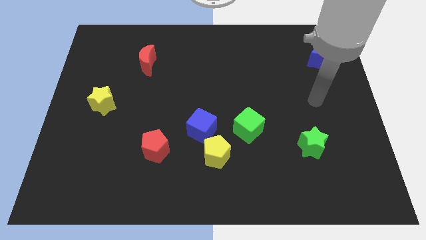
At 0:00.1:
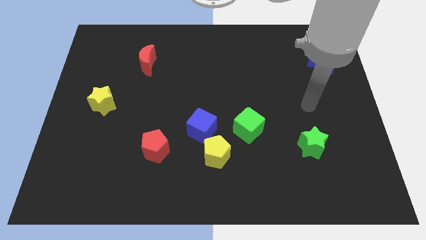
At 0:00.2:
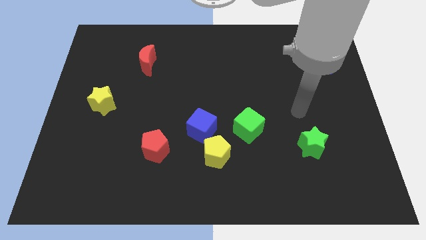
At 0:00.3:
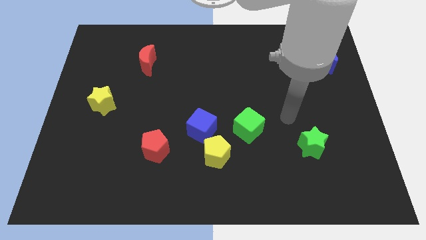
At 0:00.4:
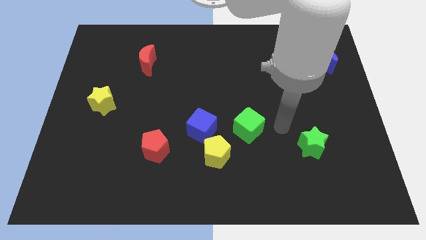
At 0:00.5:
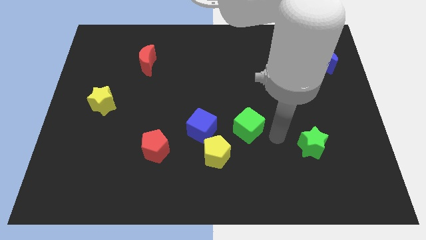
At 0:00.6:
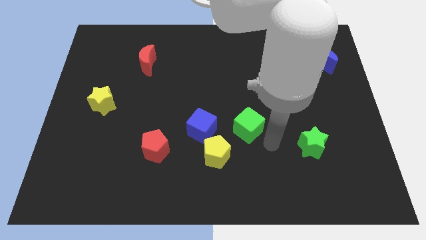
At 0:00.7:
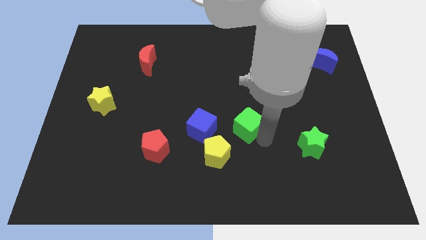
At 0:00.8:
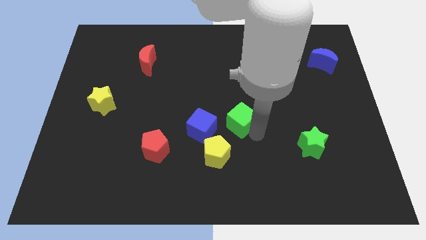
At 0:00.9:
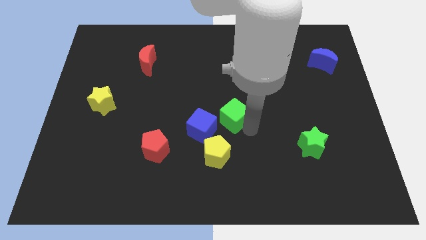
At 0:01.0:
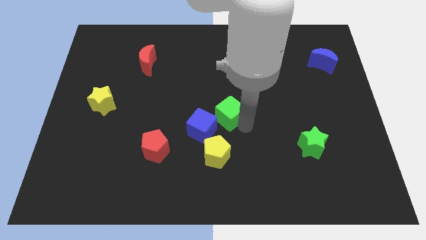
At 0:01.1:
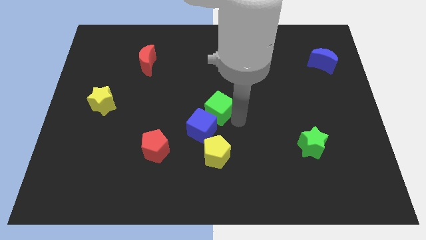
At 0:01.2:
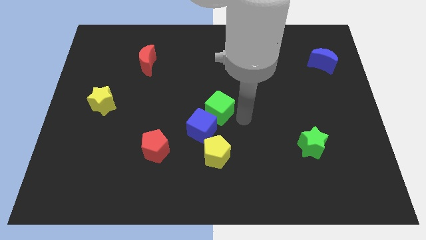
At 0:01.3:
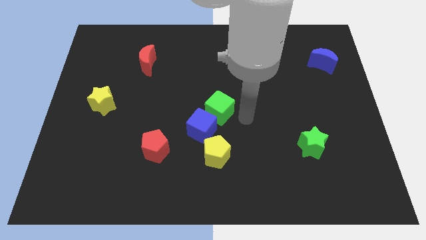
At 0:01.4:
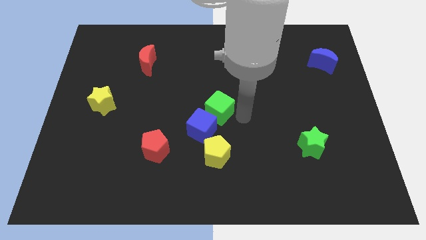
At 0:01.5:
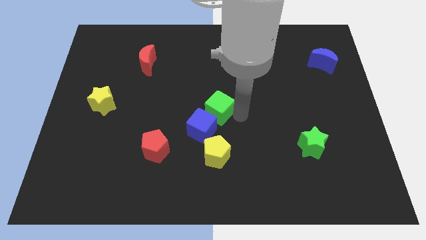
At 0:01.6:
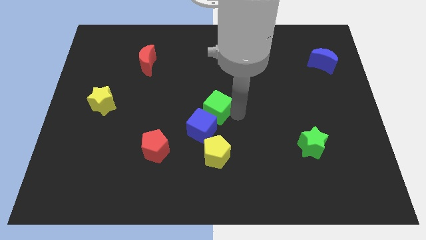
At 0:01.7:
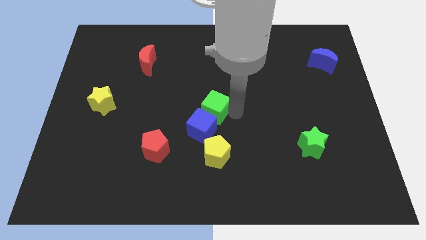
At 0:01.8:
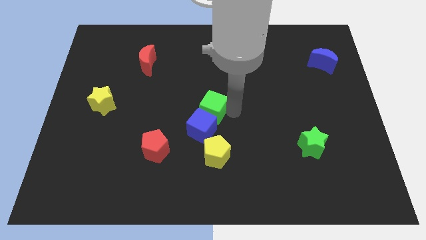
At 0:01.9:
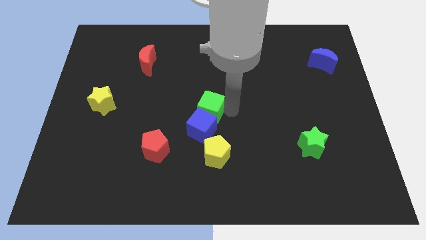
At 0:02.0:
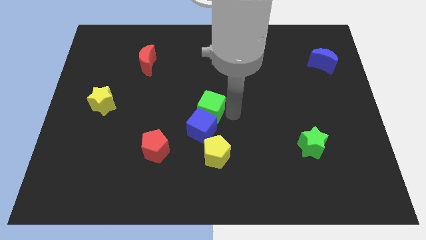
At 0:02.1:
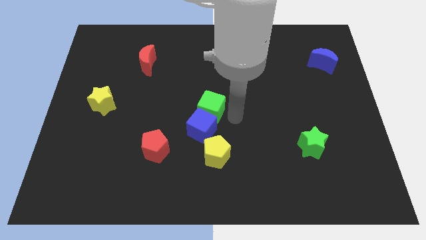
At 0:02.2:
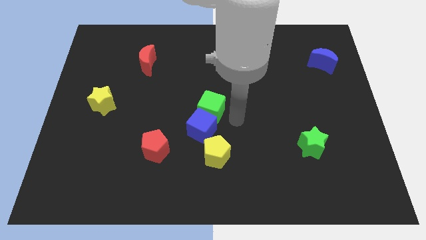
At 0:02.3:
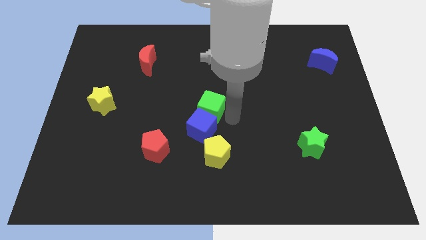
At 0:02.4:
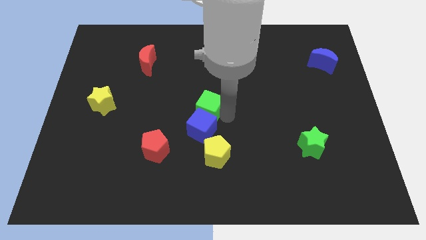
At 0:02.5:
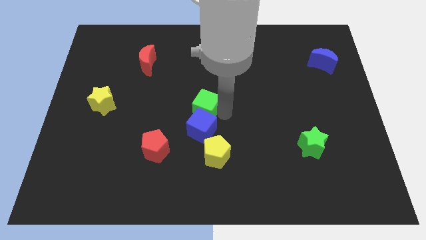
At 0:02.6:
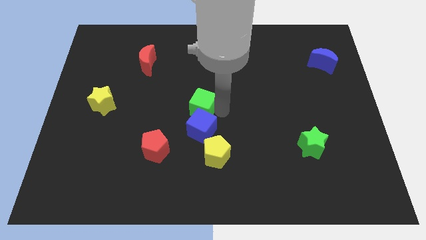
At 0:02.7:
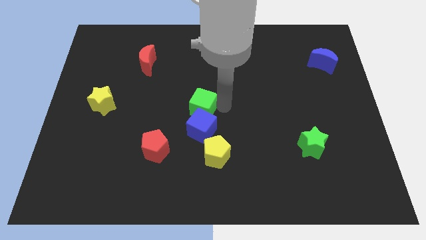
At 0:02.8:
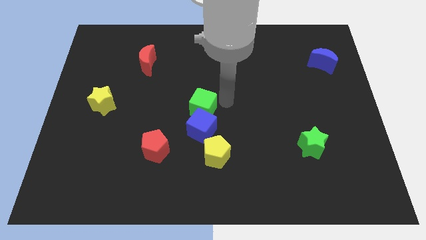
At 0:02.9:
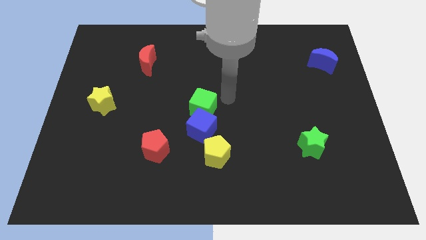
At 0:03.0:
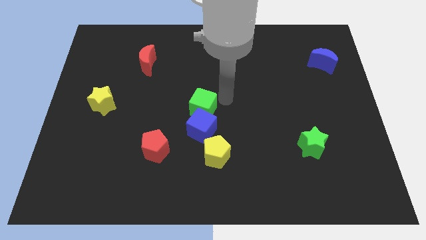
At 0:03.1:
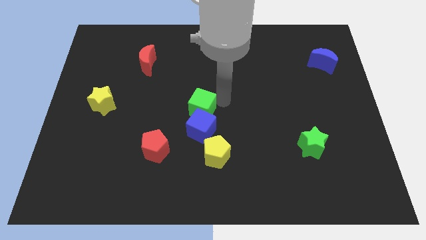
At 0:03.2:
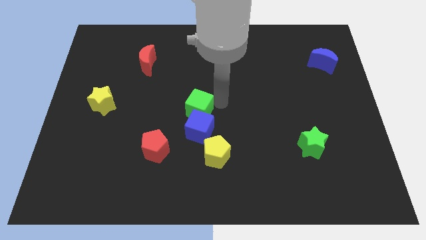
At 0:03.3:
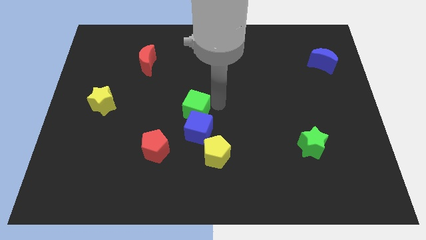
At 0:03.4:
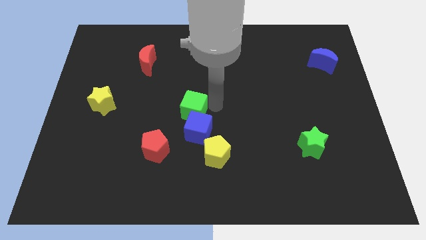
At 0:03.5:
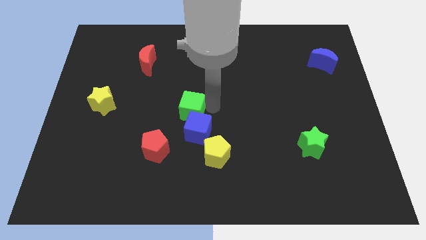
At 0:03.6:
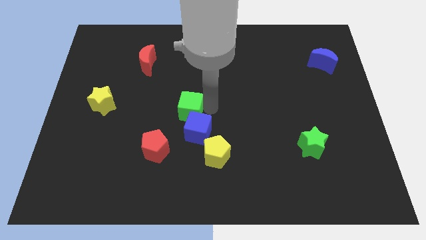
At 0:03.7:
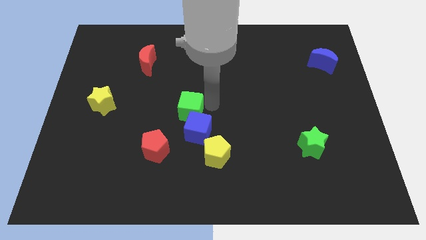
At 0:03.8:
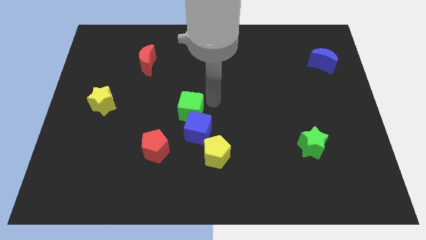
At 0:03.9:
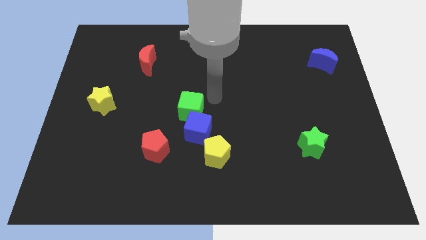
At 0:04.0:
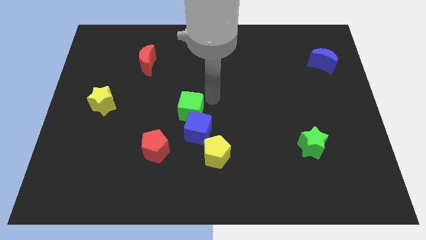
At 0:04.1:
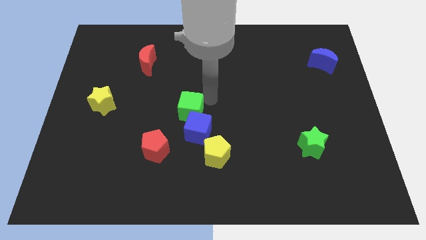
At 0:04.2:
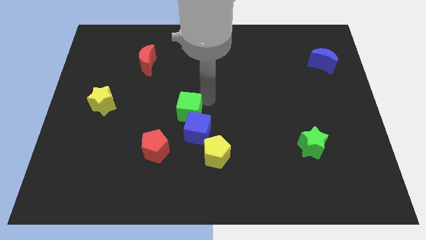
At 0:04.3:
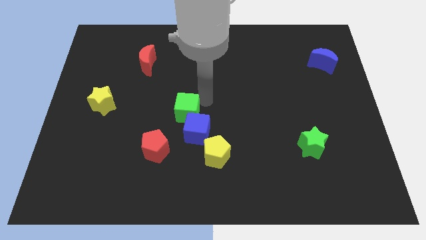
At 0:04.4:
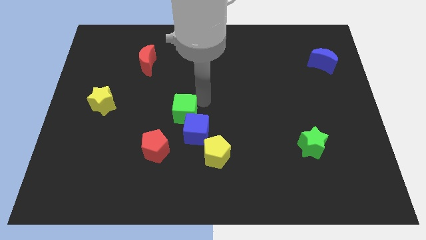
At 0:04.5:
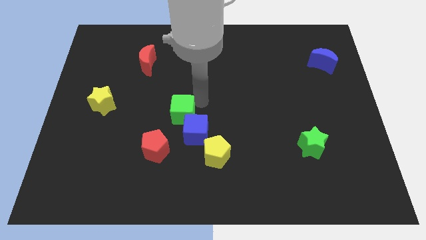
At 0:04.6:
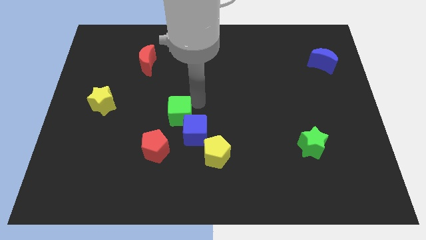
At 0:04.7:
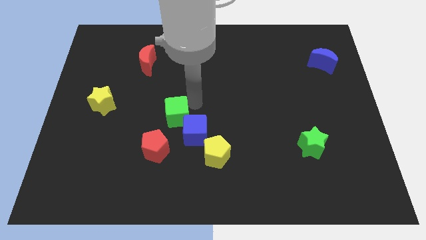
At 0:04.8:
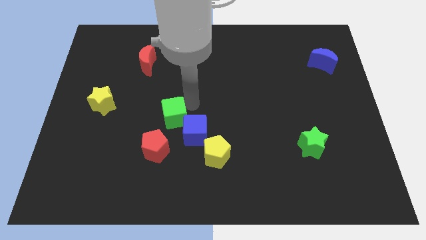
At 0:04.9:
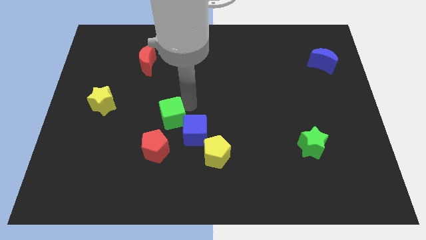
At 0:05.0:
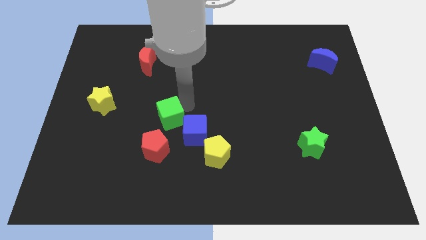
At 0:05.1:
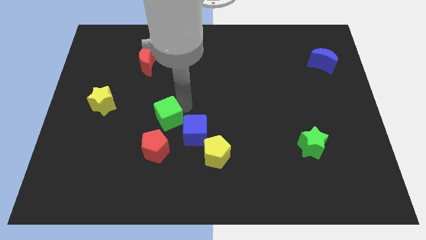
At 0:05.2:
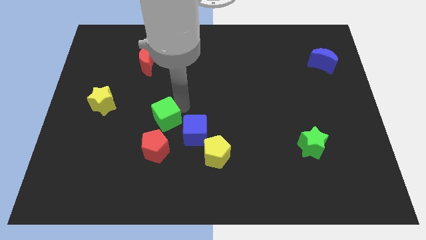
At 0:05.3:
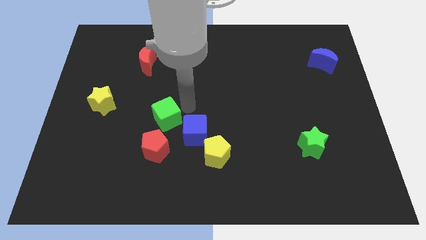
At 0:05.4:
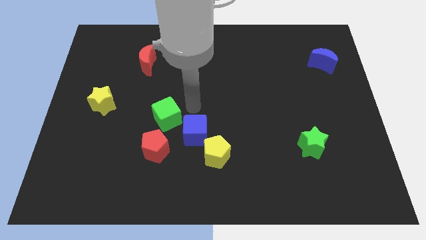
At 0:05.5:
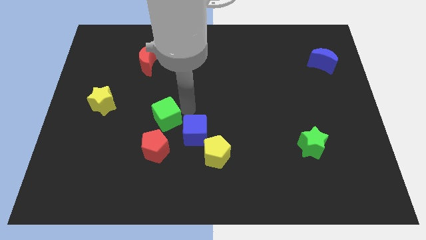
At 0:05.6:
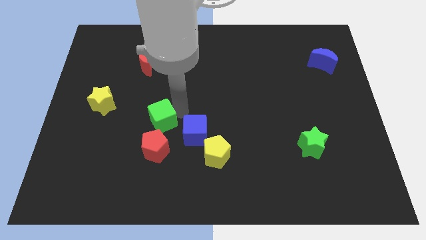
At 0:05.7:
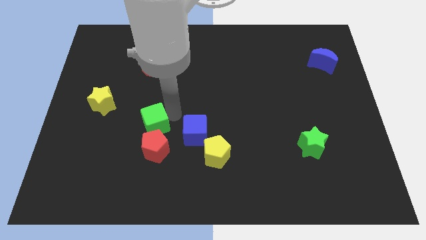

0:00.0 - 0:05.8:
move the green cube to the top left of the red pentagon

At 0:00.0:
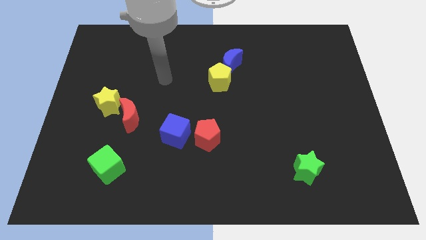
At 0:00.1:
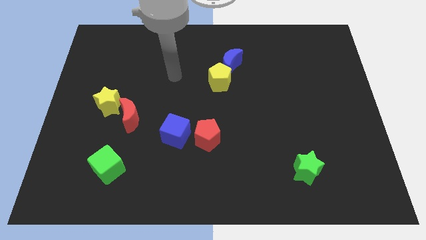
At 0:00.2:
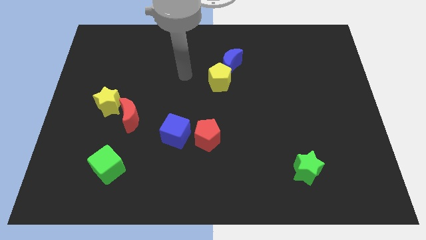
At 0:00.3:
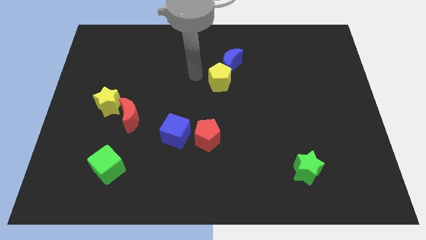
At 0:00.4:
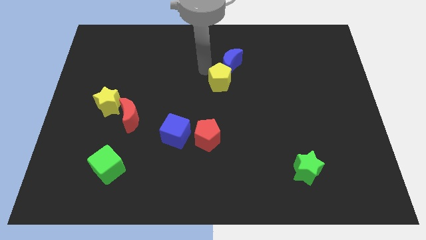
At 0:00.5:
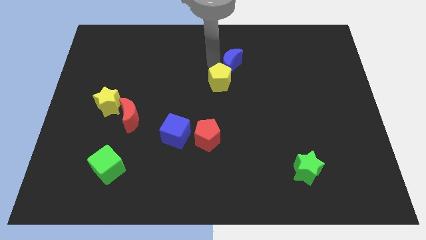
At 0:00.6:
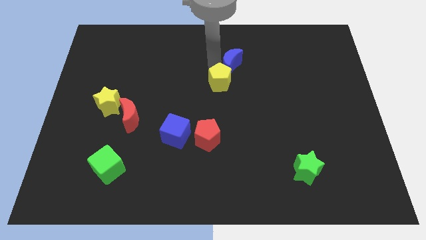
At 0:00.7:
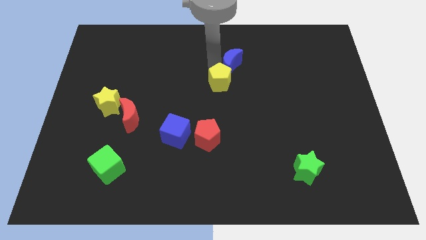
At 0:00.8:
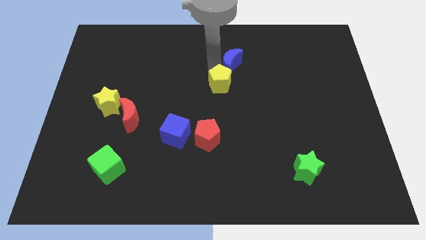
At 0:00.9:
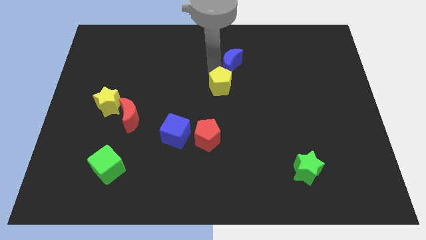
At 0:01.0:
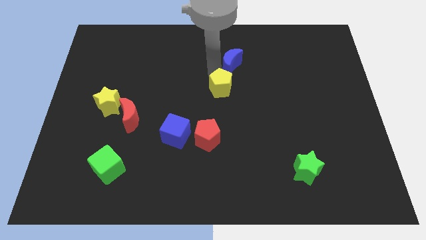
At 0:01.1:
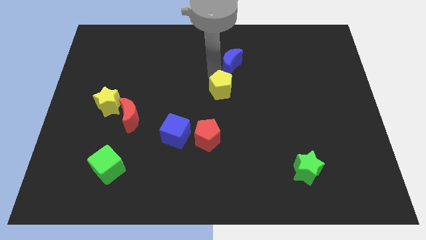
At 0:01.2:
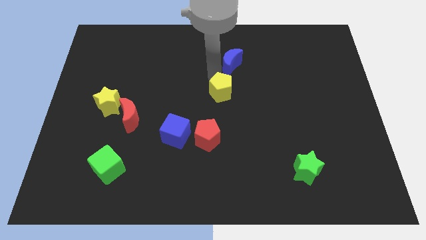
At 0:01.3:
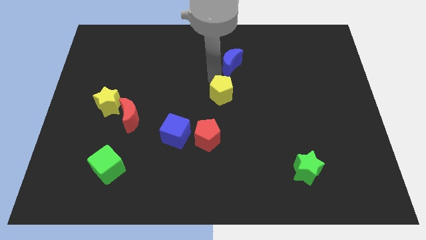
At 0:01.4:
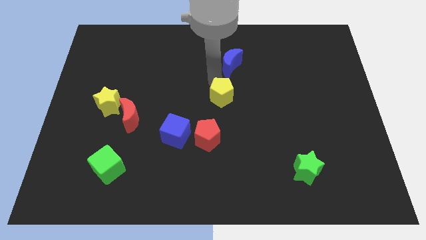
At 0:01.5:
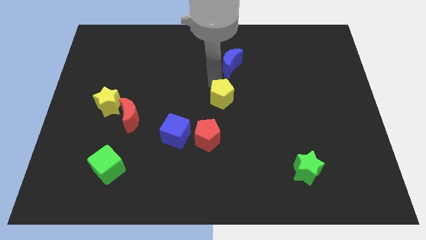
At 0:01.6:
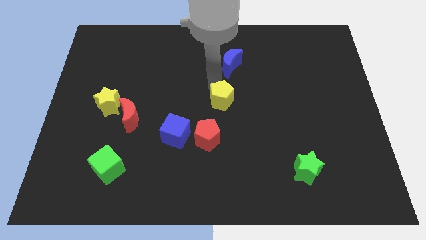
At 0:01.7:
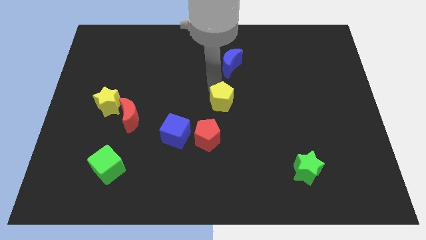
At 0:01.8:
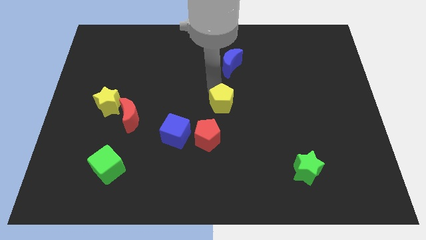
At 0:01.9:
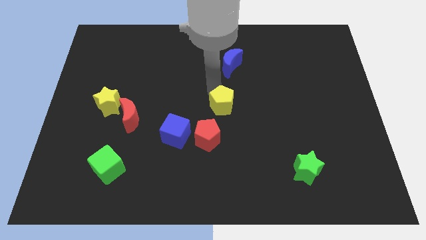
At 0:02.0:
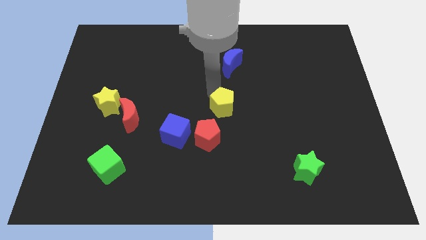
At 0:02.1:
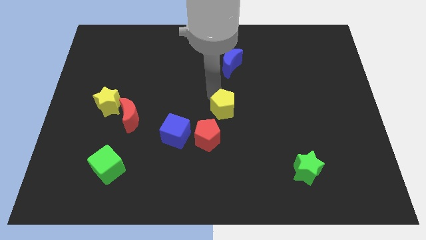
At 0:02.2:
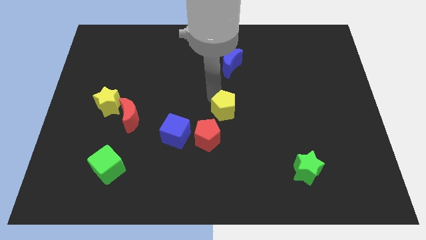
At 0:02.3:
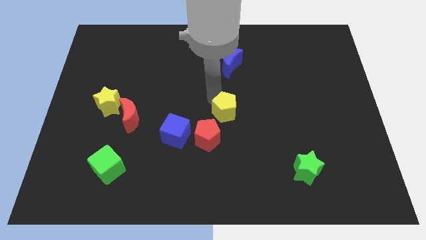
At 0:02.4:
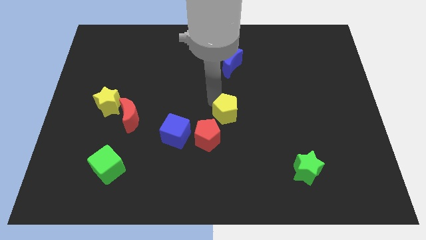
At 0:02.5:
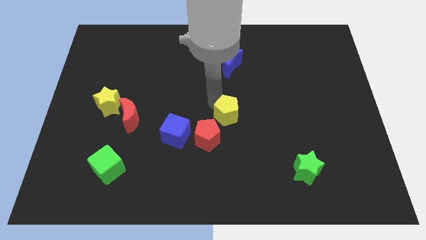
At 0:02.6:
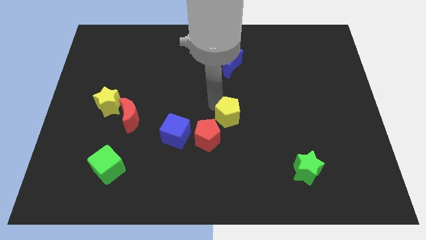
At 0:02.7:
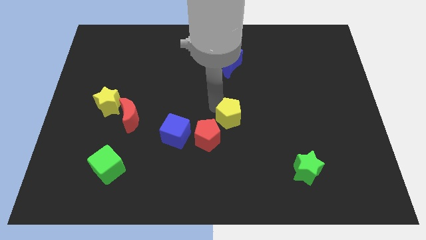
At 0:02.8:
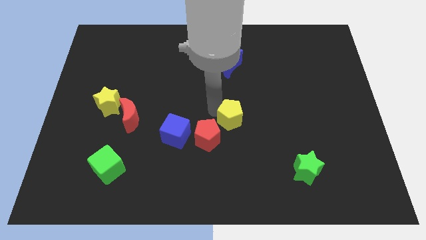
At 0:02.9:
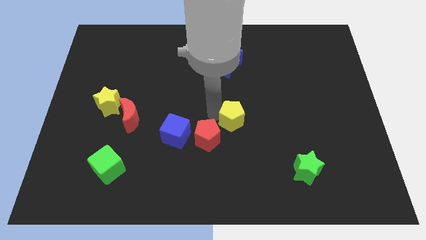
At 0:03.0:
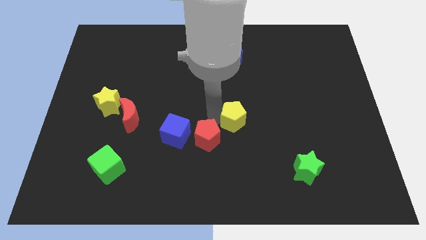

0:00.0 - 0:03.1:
put the yellow pentagon right of the red pentagon
